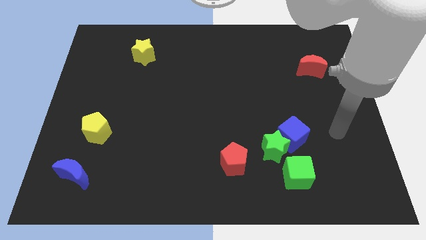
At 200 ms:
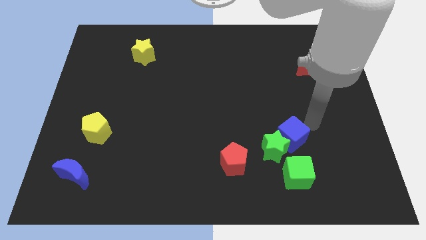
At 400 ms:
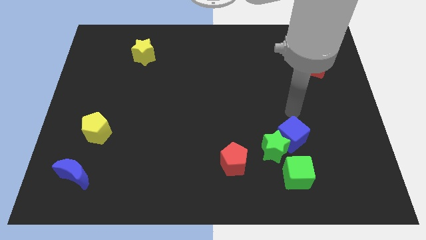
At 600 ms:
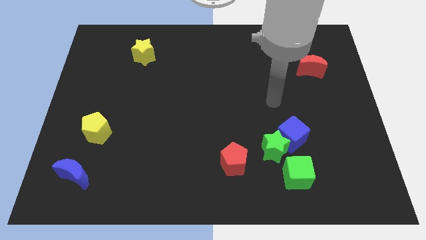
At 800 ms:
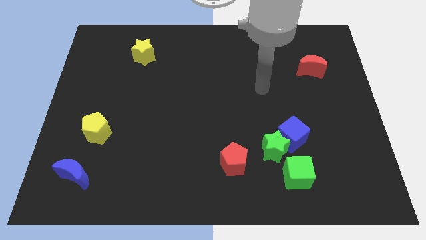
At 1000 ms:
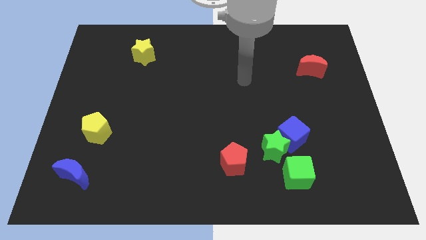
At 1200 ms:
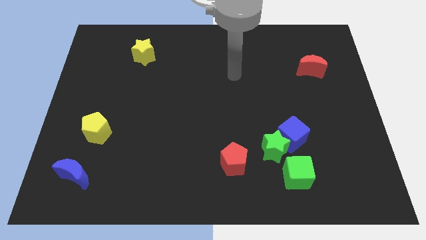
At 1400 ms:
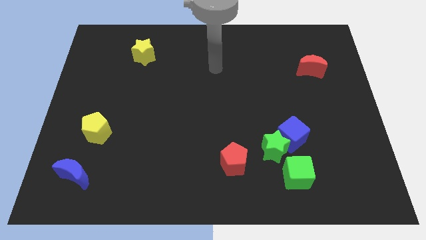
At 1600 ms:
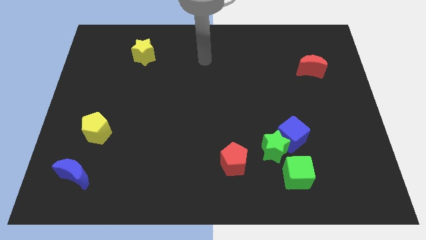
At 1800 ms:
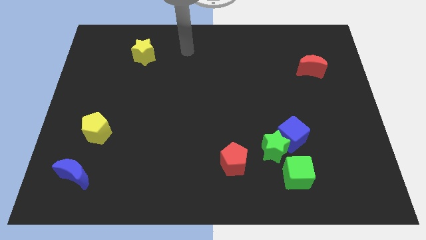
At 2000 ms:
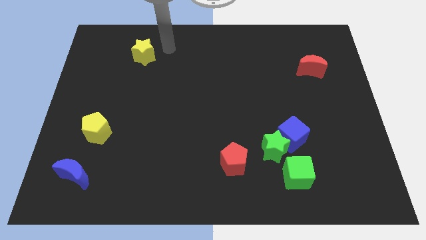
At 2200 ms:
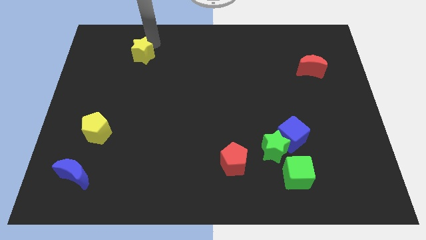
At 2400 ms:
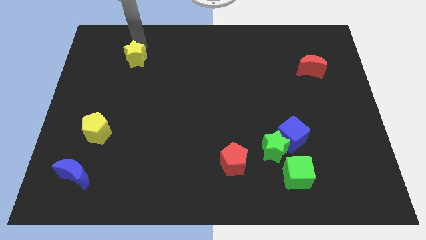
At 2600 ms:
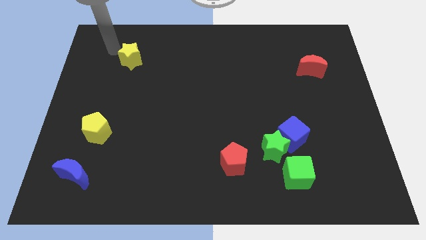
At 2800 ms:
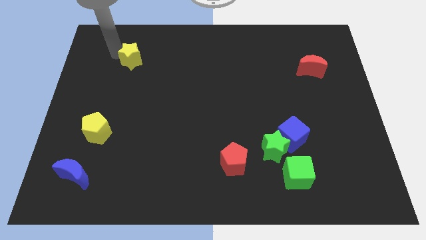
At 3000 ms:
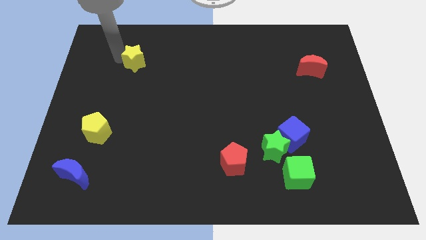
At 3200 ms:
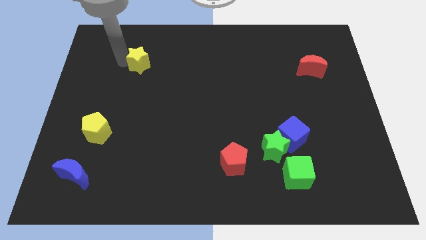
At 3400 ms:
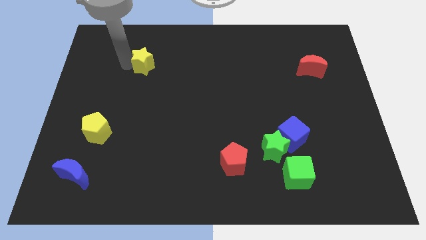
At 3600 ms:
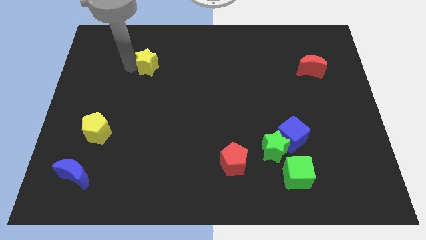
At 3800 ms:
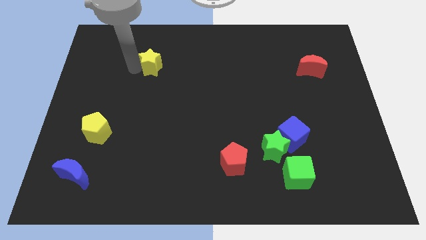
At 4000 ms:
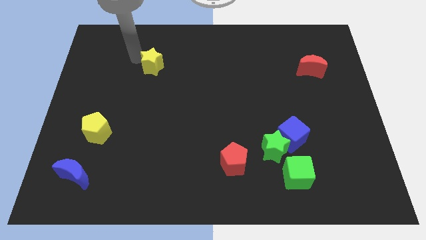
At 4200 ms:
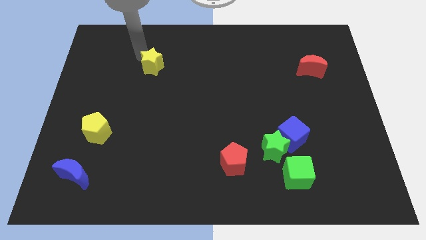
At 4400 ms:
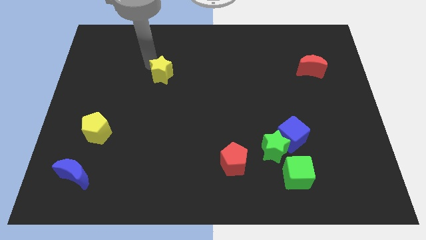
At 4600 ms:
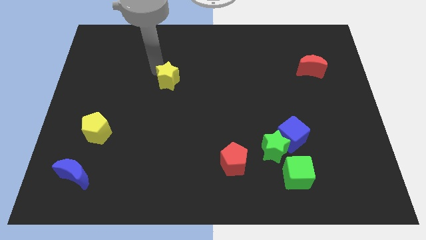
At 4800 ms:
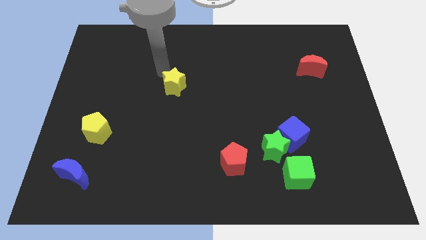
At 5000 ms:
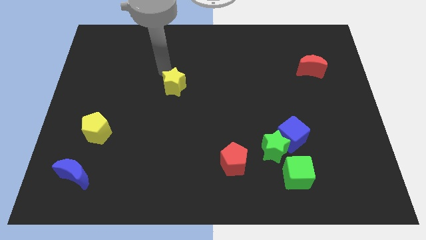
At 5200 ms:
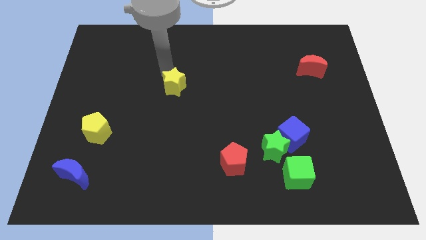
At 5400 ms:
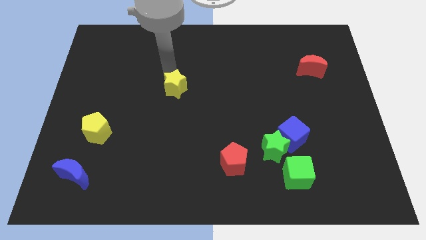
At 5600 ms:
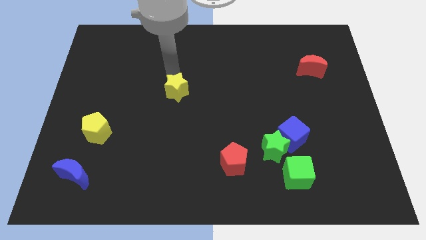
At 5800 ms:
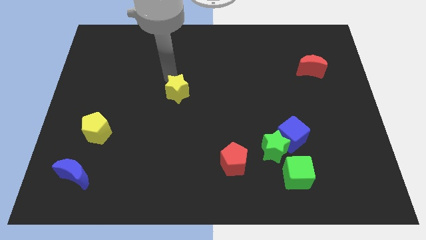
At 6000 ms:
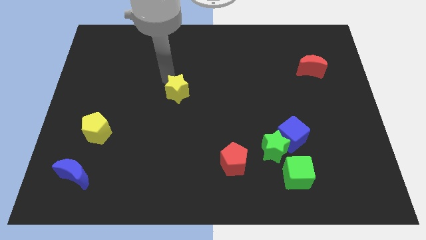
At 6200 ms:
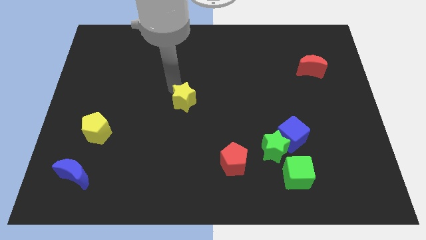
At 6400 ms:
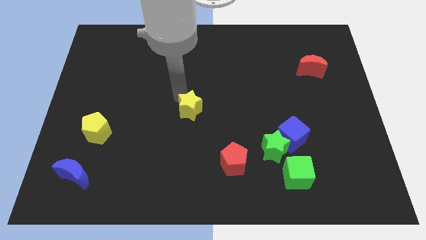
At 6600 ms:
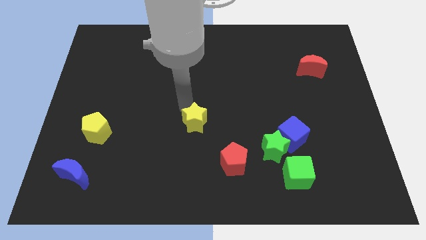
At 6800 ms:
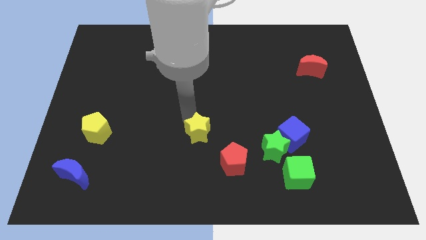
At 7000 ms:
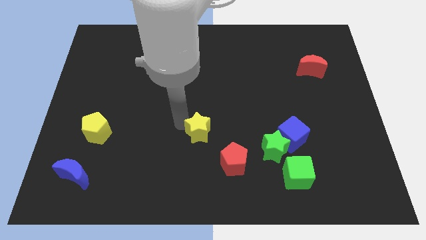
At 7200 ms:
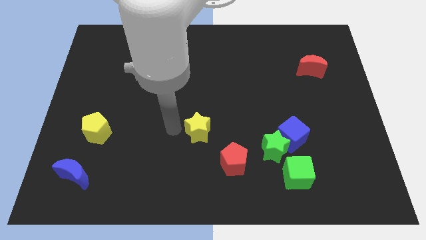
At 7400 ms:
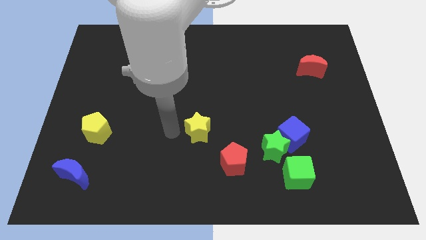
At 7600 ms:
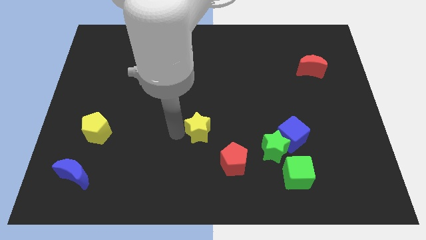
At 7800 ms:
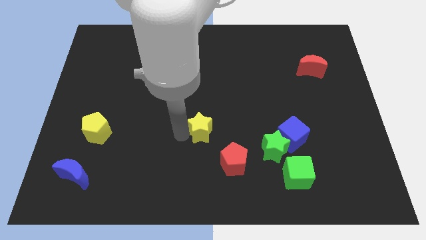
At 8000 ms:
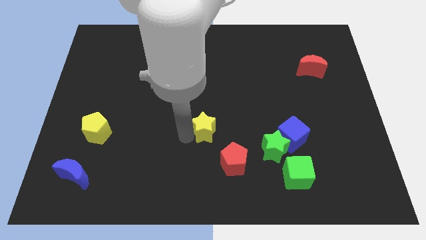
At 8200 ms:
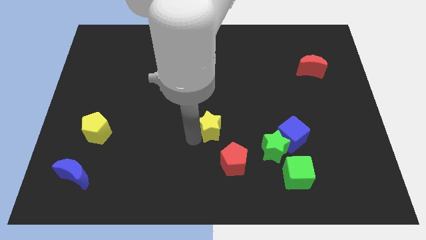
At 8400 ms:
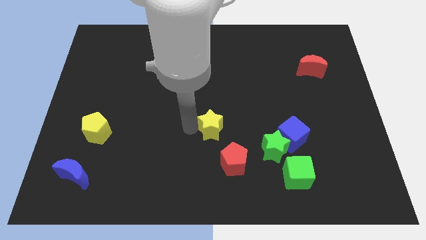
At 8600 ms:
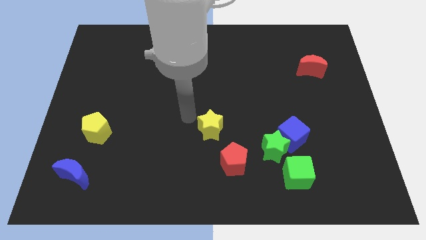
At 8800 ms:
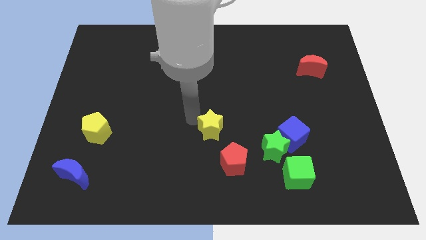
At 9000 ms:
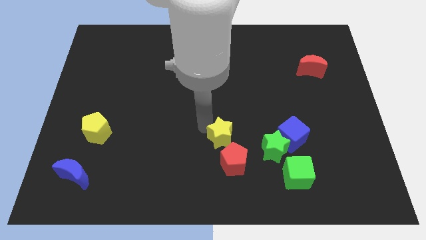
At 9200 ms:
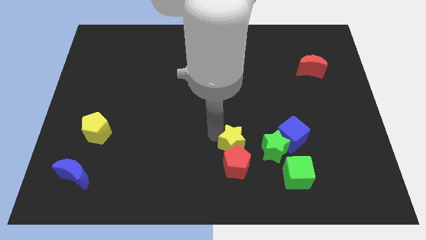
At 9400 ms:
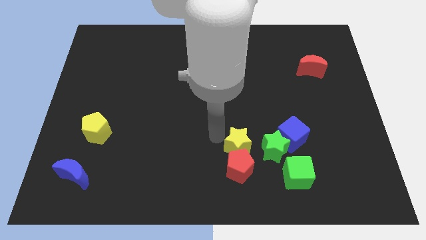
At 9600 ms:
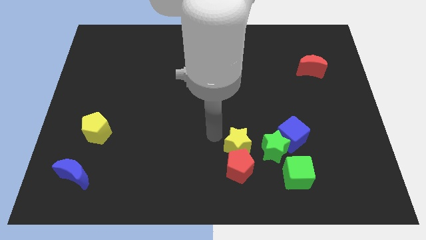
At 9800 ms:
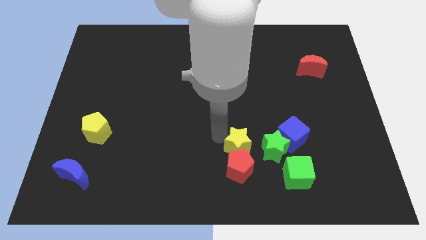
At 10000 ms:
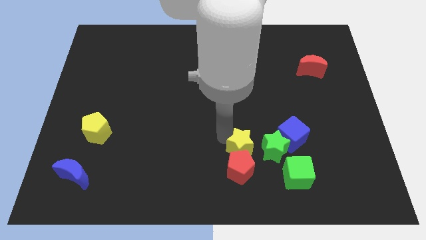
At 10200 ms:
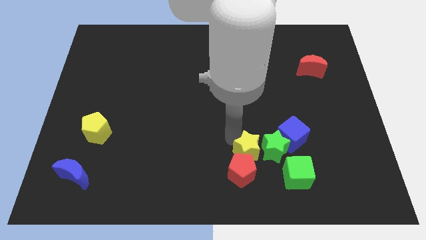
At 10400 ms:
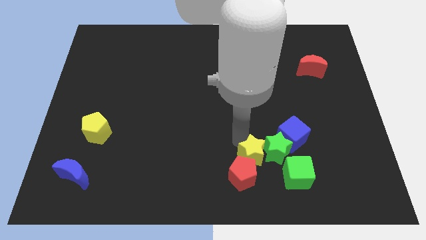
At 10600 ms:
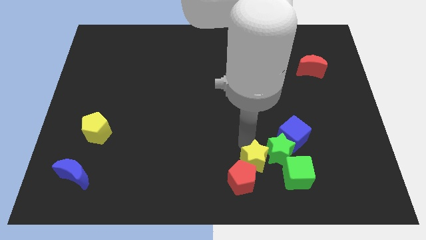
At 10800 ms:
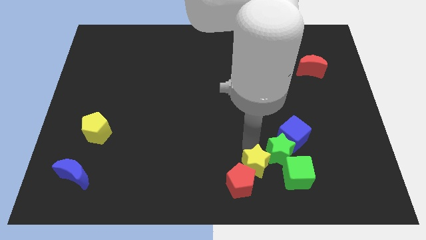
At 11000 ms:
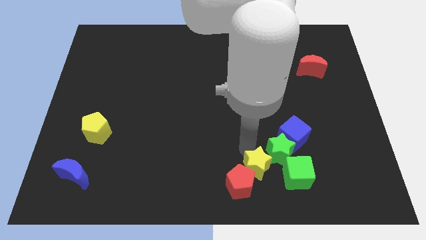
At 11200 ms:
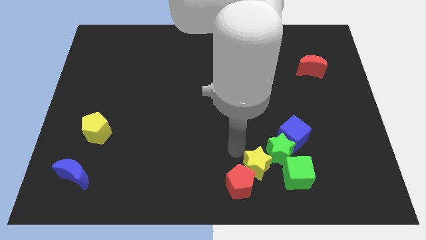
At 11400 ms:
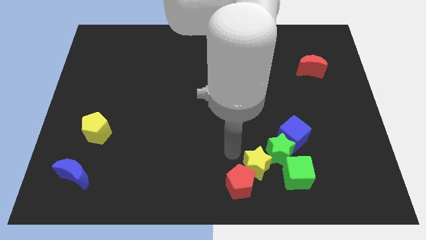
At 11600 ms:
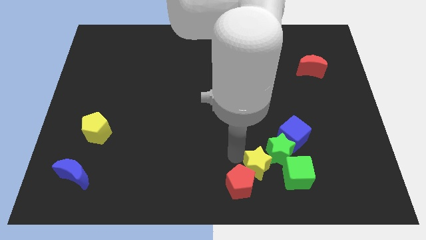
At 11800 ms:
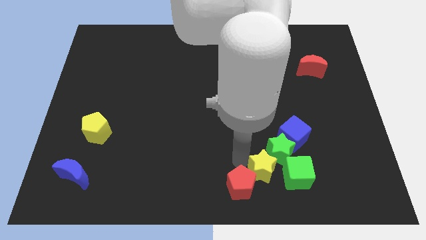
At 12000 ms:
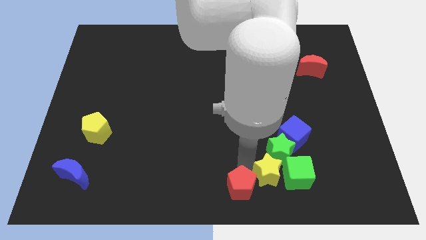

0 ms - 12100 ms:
push the yellow star next to the green cube

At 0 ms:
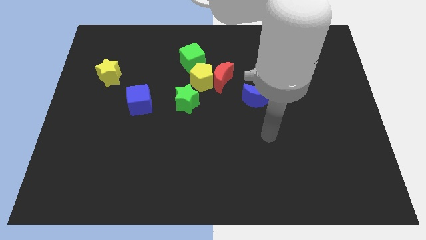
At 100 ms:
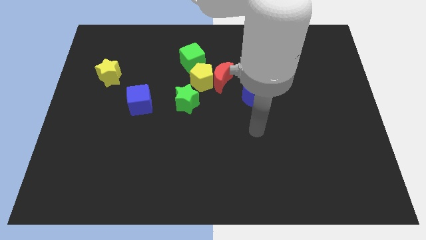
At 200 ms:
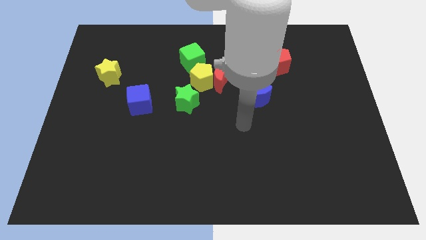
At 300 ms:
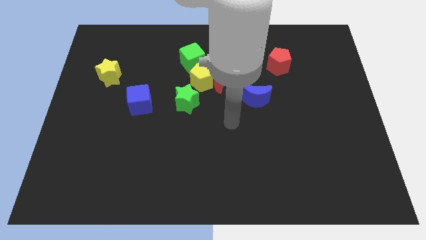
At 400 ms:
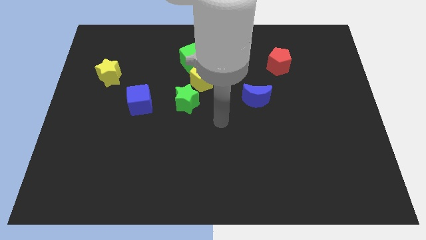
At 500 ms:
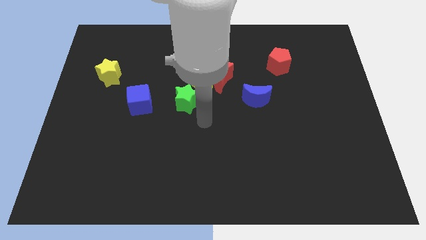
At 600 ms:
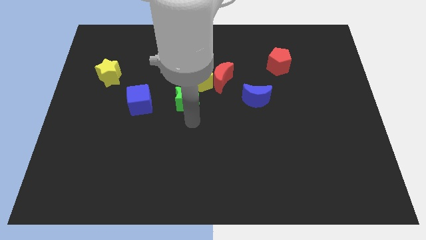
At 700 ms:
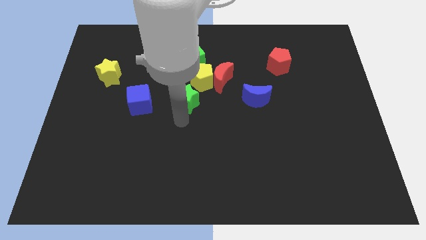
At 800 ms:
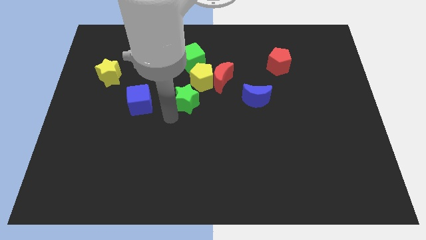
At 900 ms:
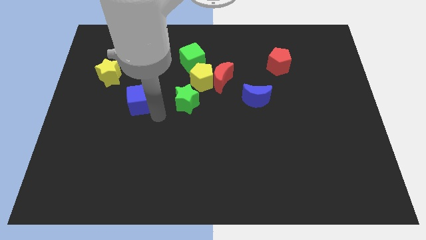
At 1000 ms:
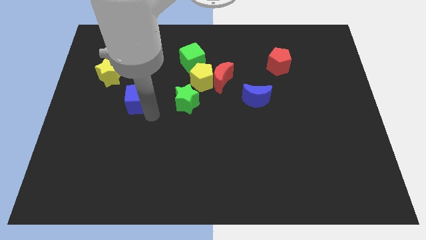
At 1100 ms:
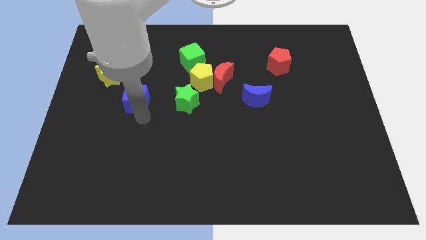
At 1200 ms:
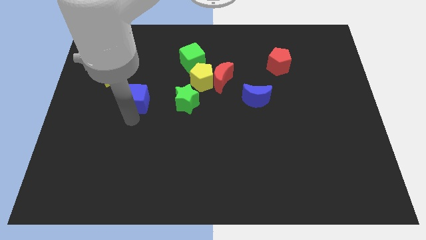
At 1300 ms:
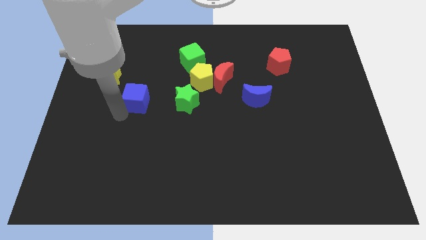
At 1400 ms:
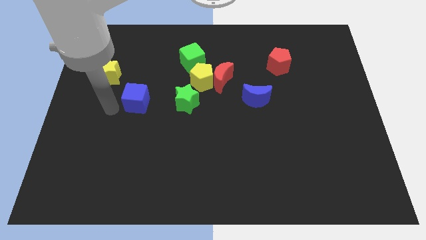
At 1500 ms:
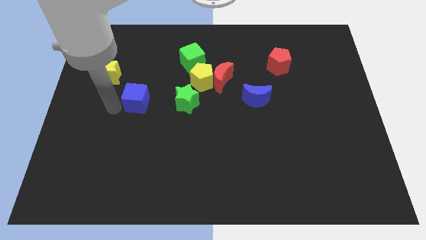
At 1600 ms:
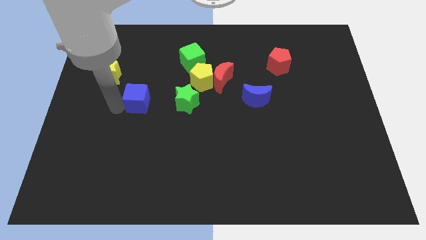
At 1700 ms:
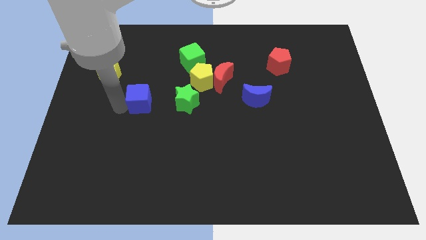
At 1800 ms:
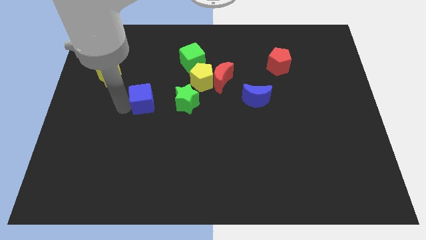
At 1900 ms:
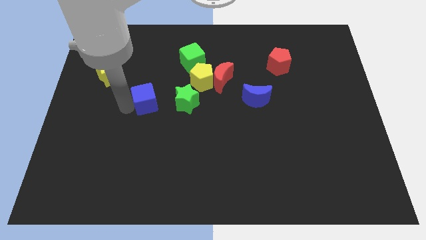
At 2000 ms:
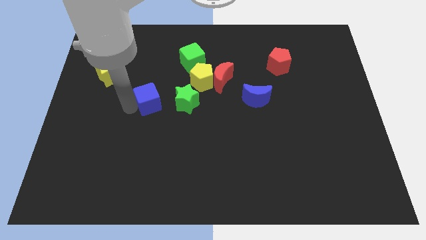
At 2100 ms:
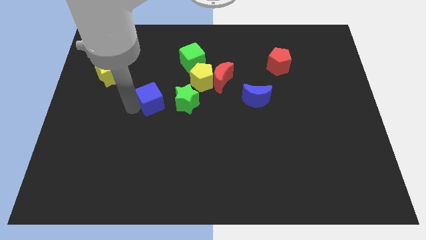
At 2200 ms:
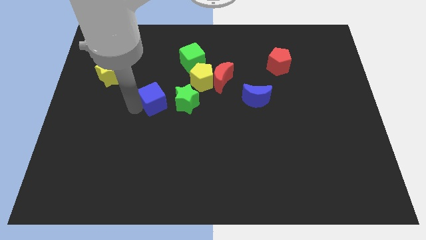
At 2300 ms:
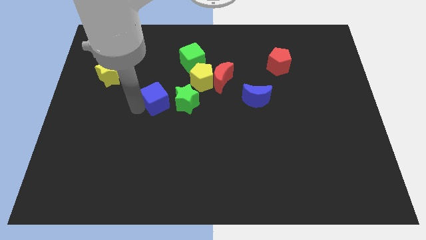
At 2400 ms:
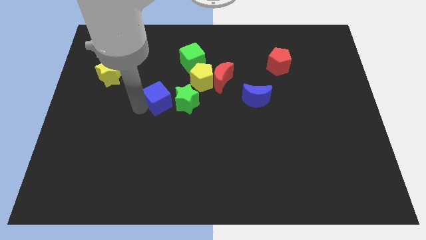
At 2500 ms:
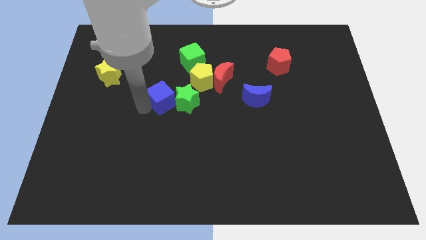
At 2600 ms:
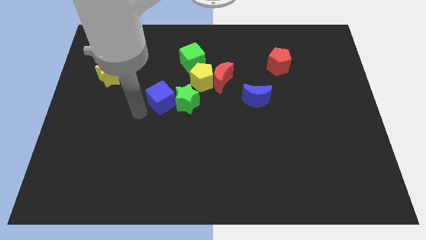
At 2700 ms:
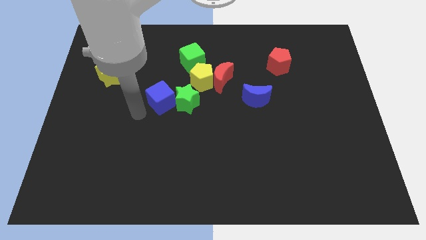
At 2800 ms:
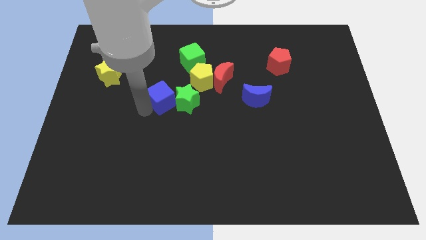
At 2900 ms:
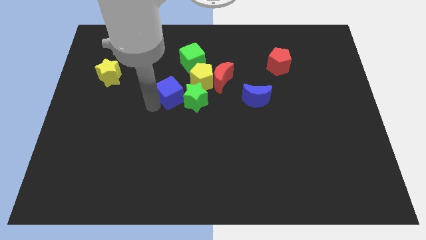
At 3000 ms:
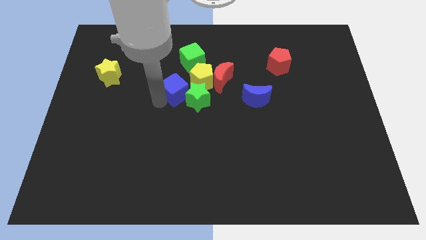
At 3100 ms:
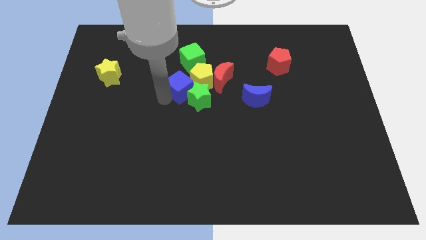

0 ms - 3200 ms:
push the blue cube close to the yellow pentagon
